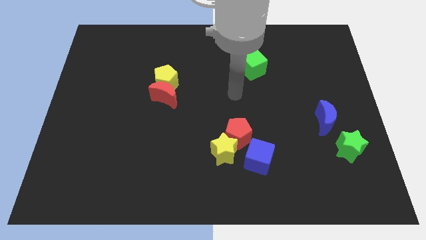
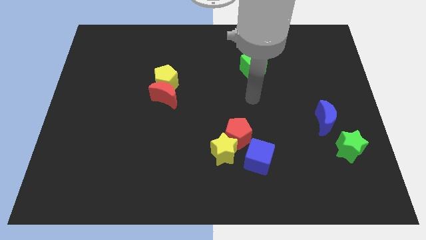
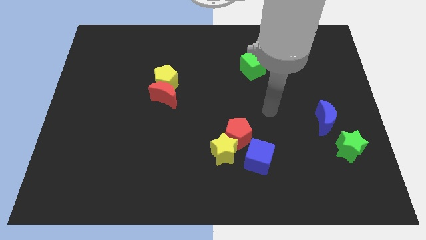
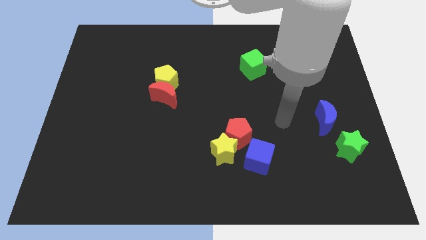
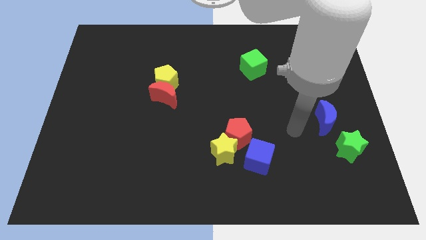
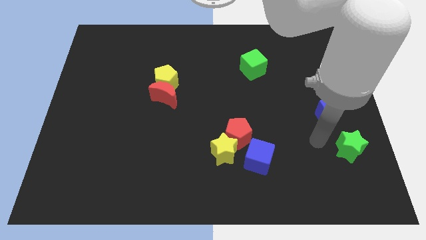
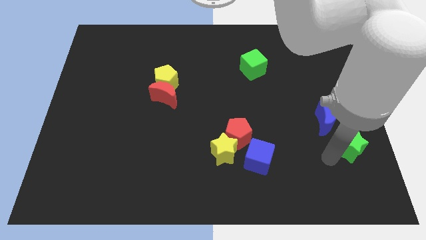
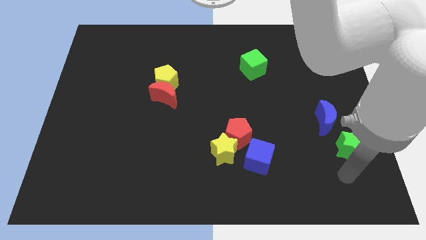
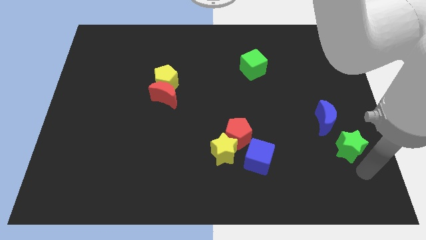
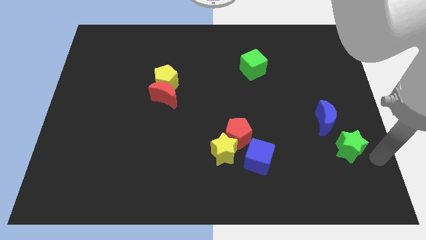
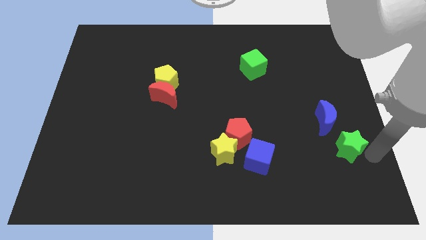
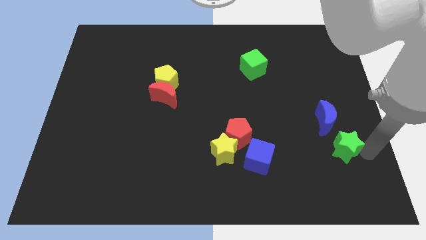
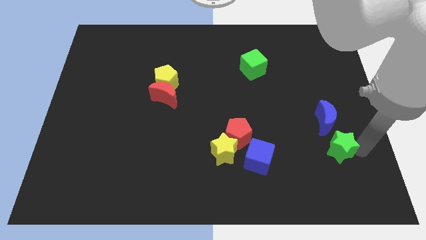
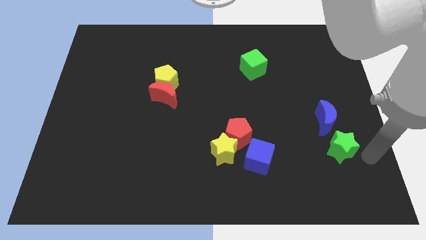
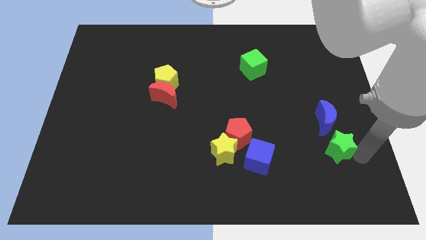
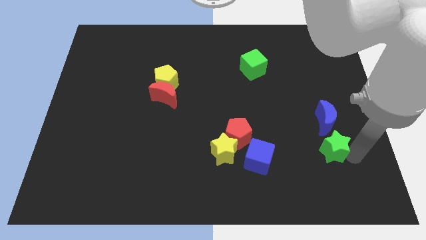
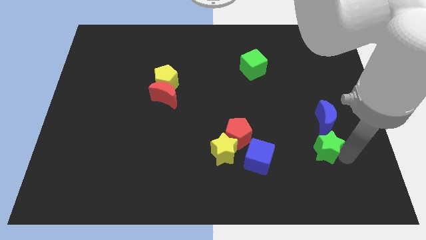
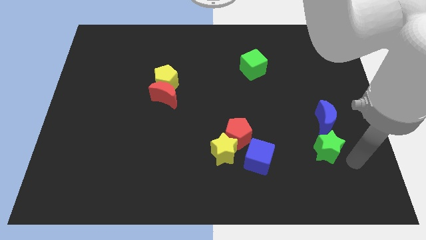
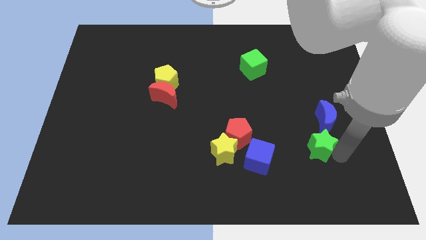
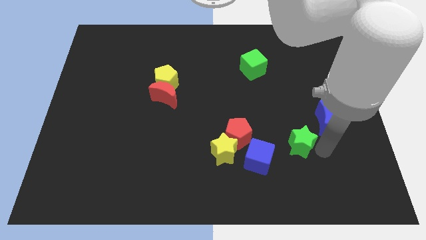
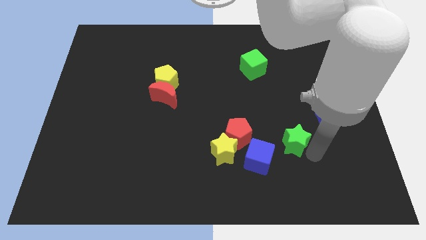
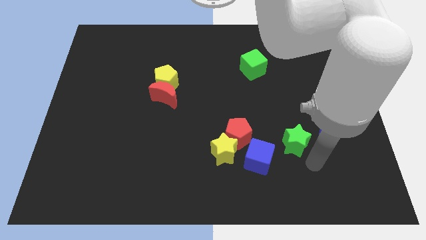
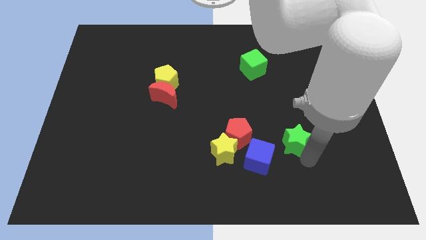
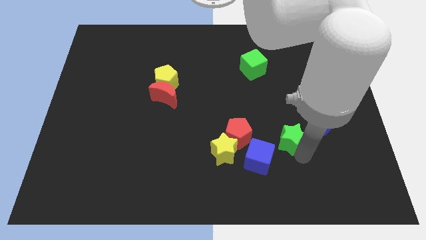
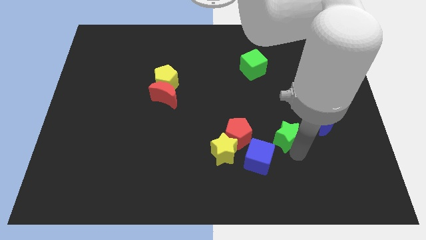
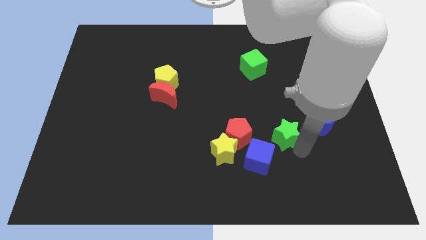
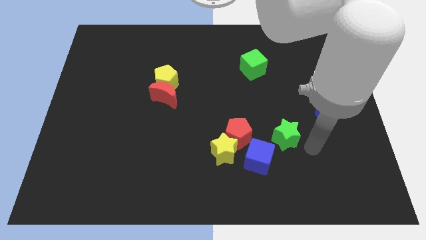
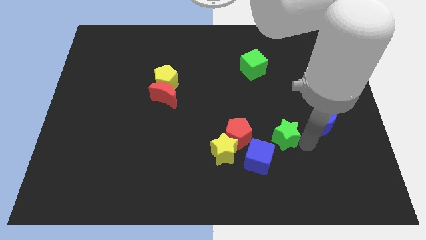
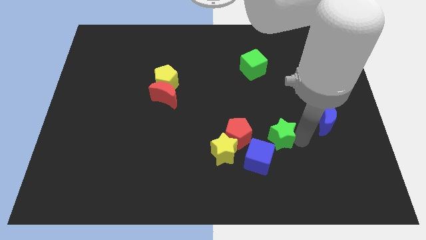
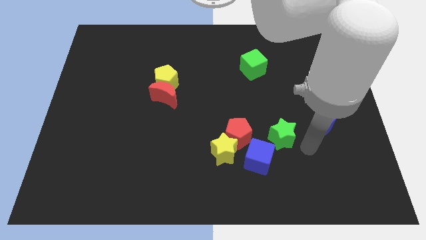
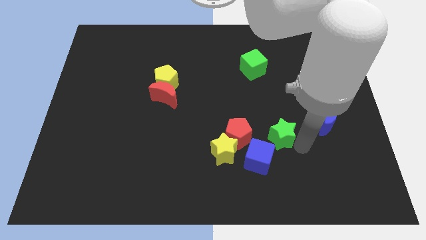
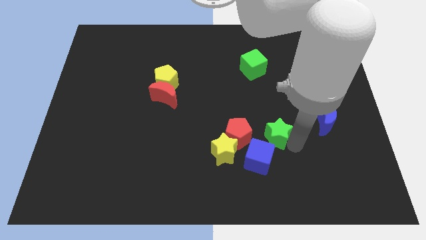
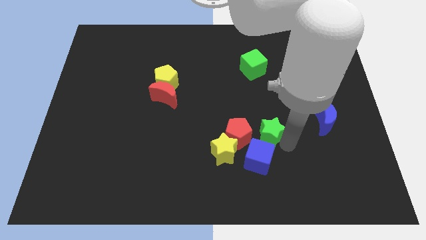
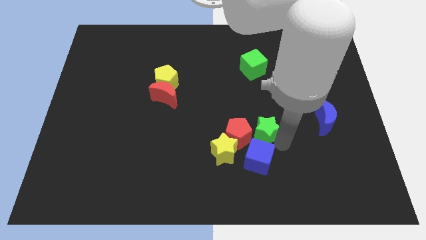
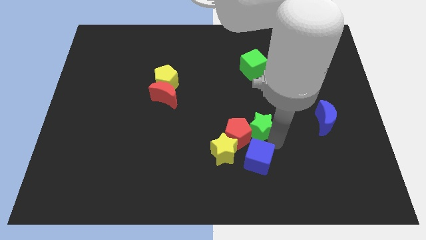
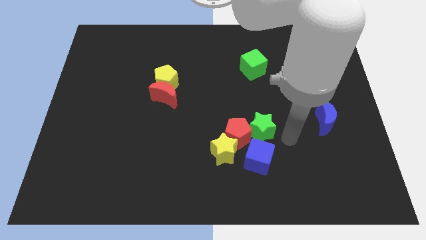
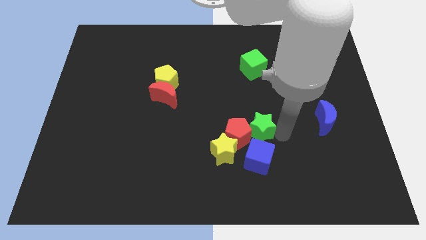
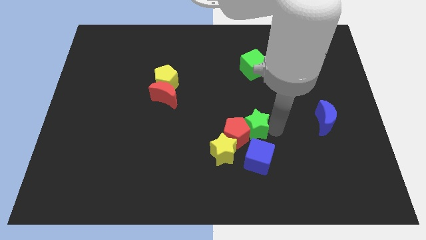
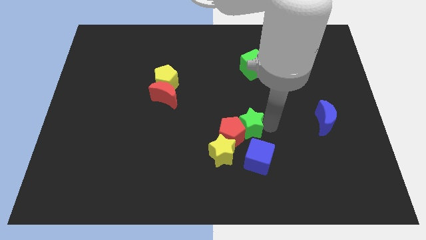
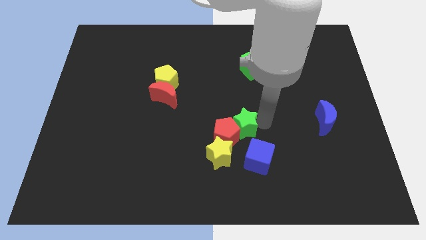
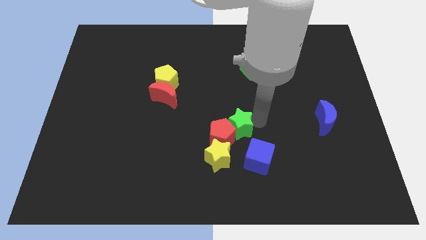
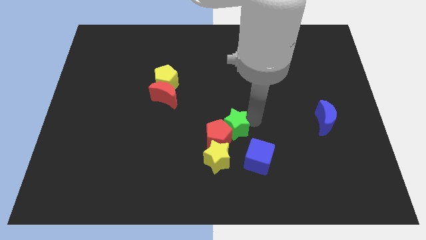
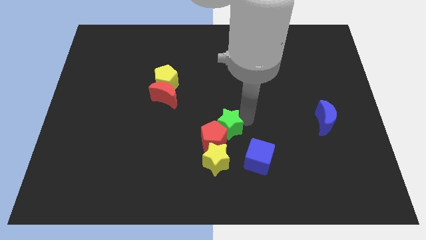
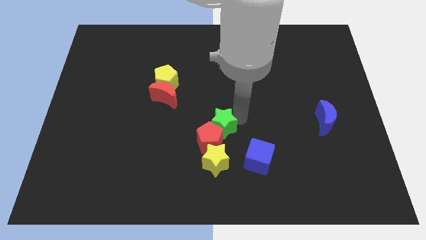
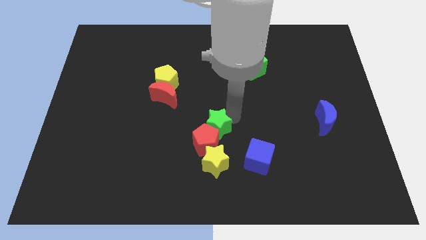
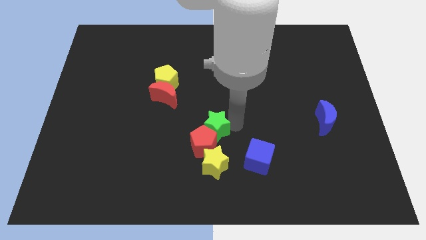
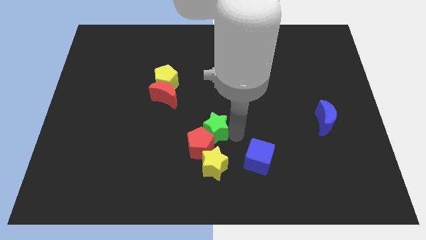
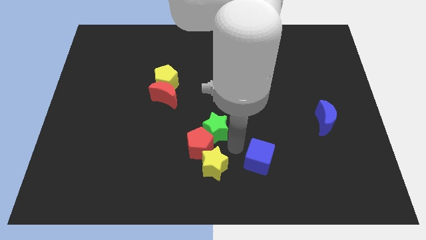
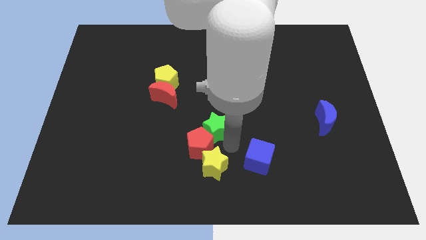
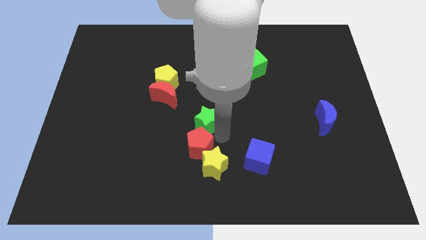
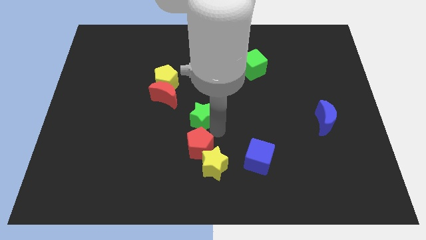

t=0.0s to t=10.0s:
slide the green star diagonally down and to the right of the red moon

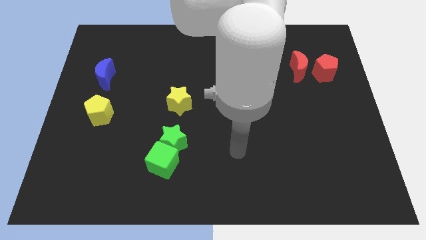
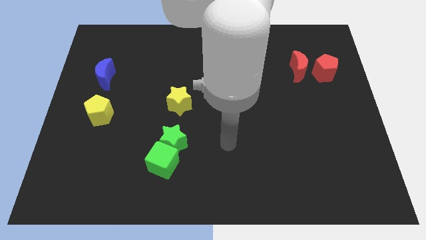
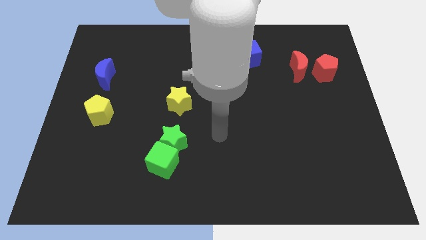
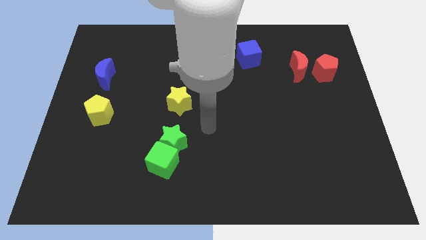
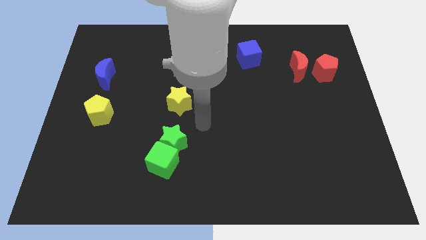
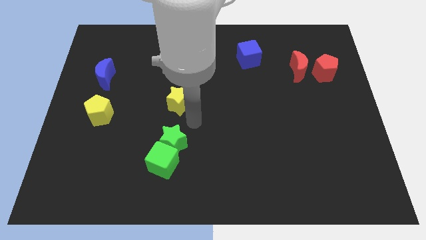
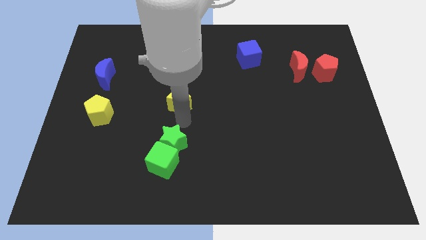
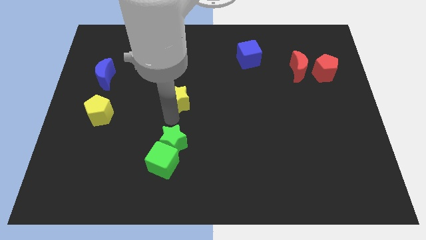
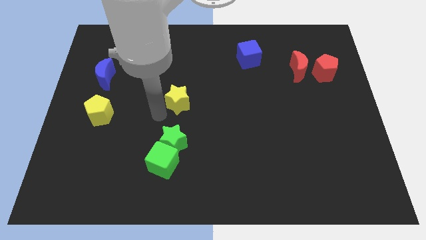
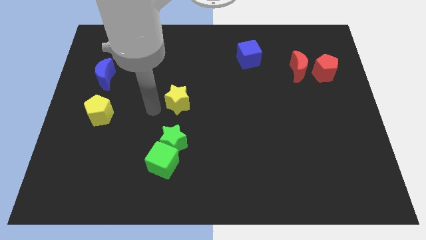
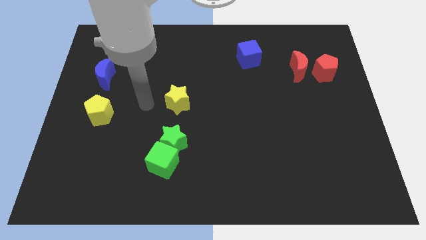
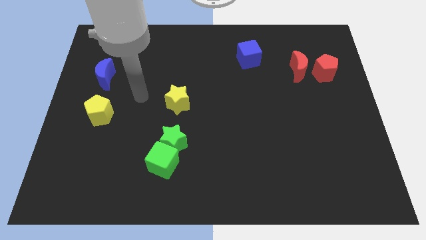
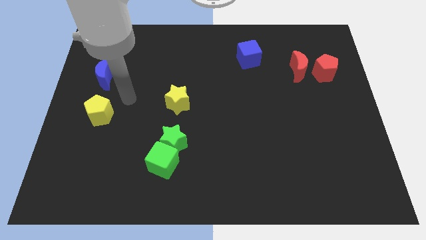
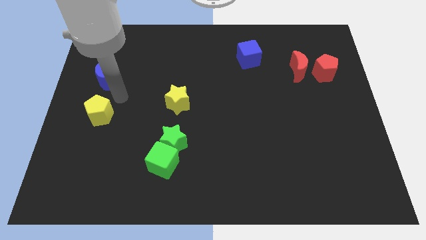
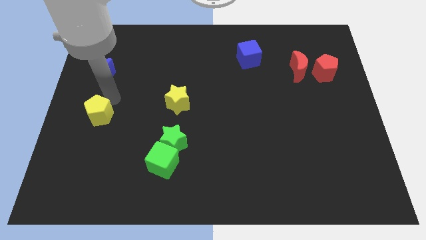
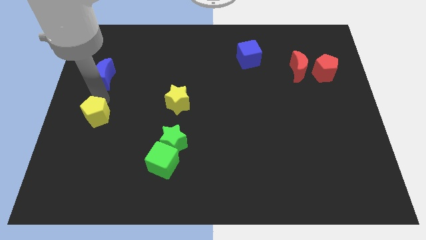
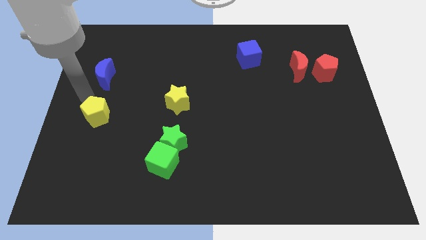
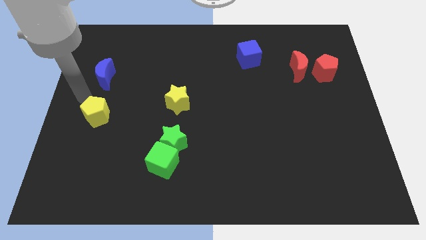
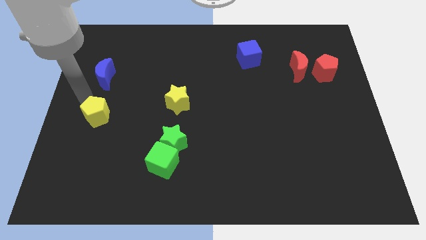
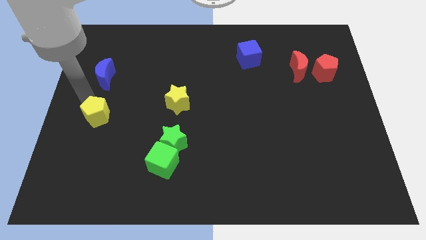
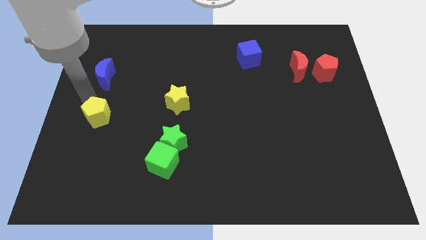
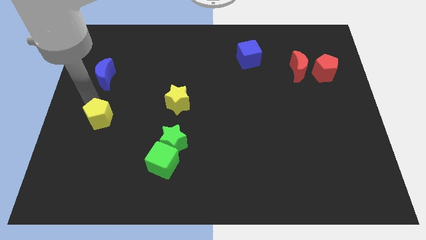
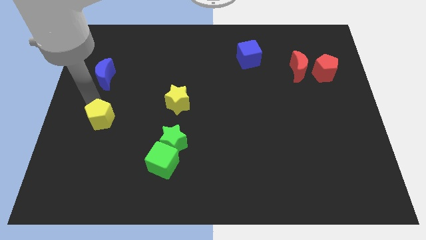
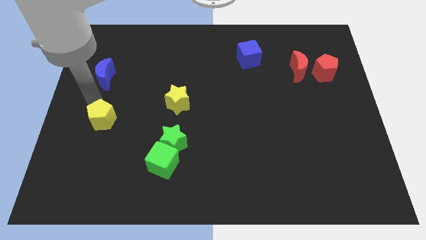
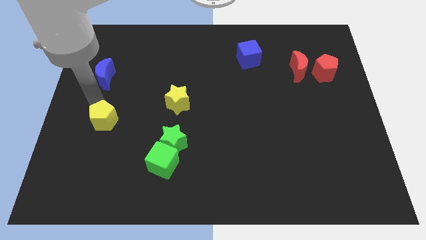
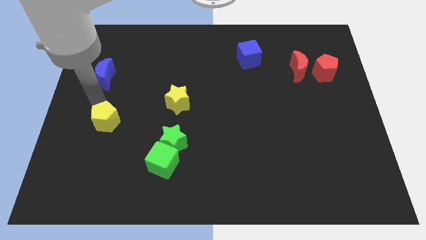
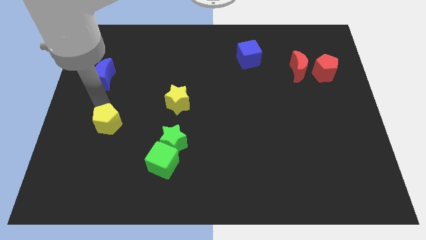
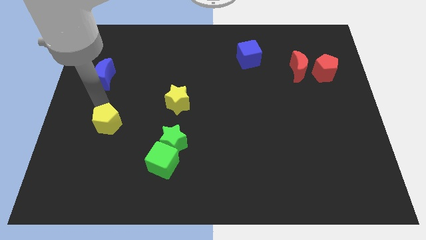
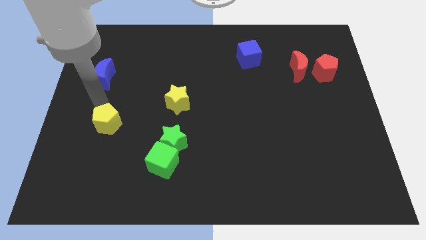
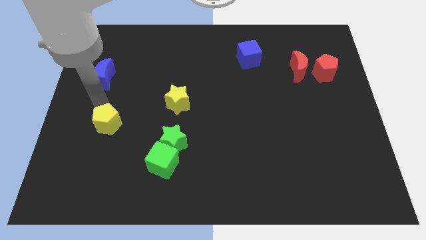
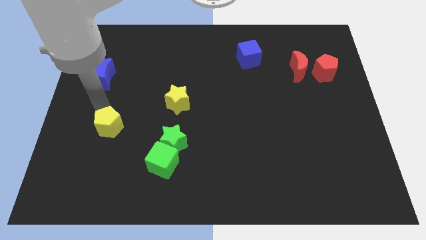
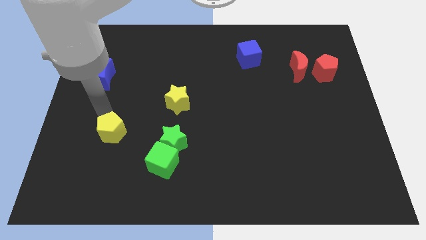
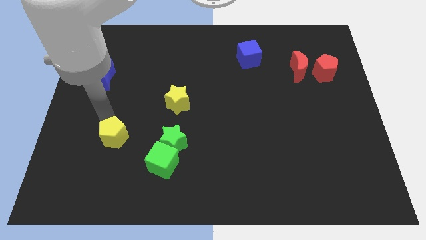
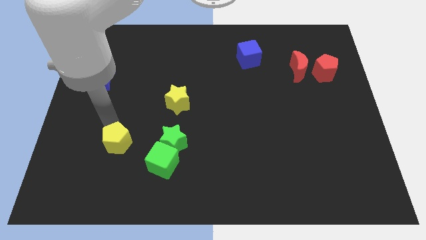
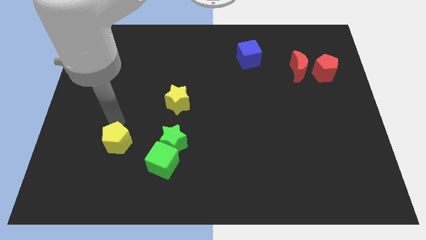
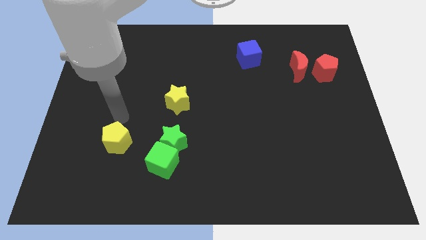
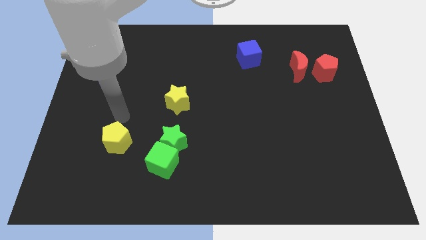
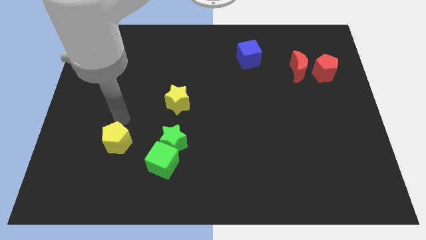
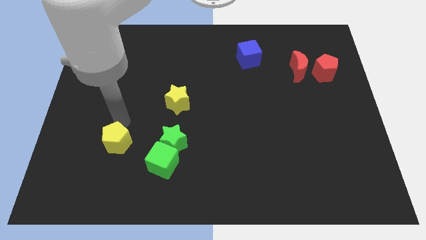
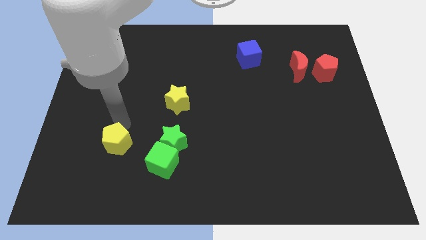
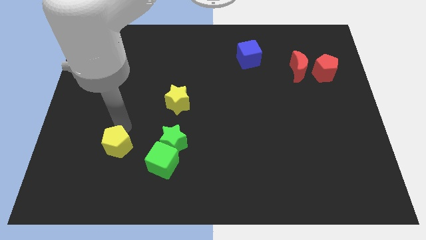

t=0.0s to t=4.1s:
push the yellow pentagon to the left of the green cube
